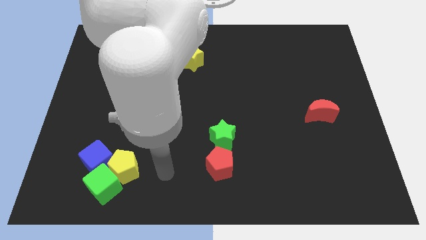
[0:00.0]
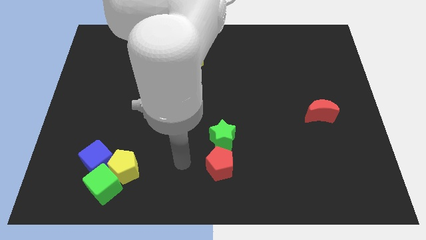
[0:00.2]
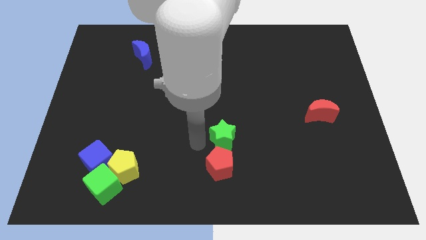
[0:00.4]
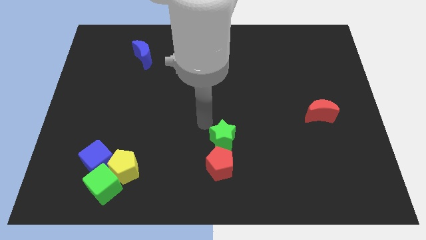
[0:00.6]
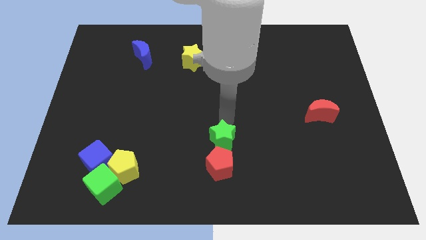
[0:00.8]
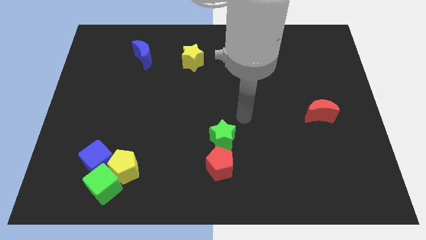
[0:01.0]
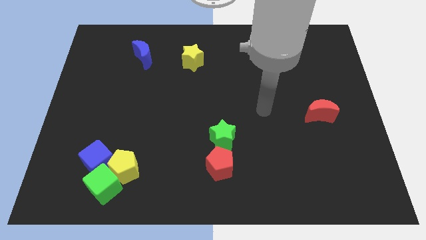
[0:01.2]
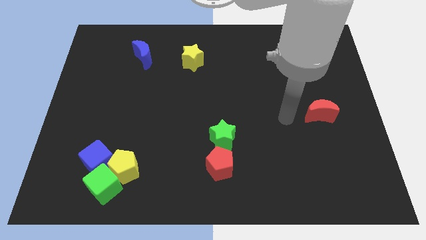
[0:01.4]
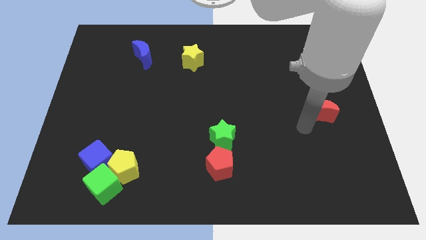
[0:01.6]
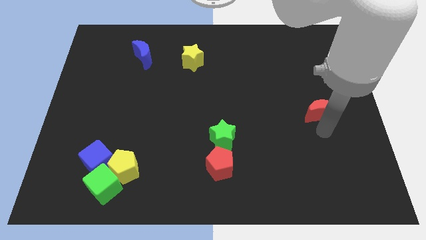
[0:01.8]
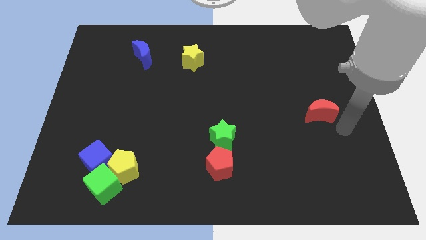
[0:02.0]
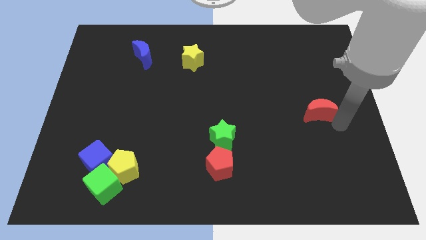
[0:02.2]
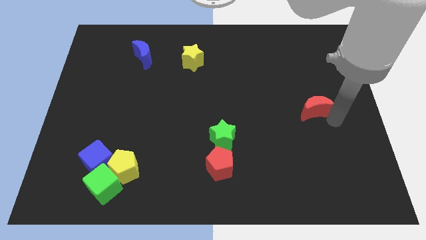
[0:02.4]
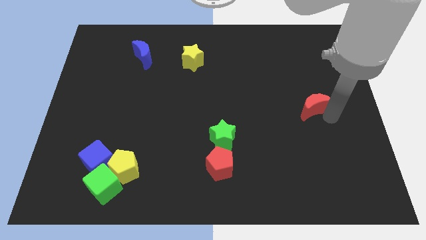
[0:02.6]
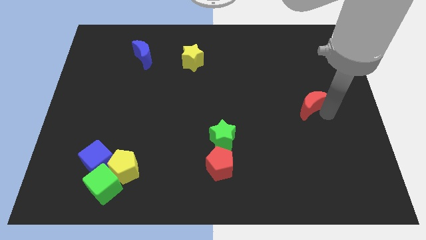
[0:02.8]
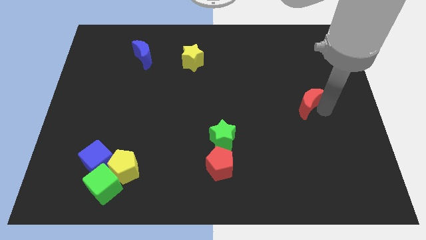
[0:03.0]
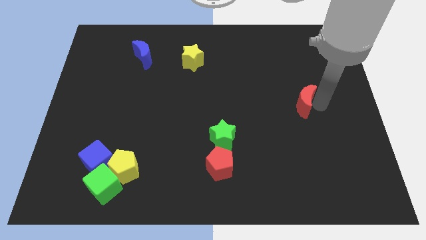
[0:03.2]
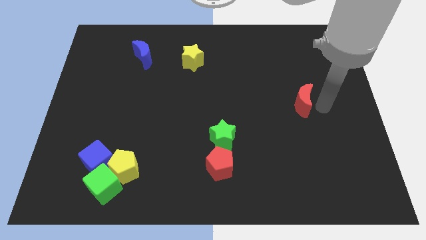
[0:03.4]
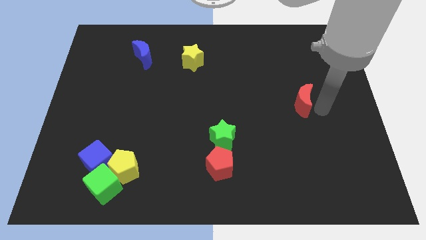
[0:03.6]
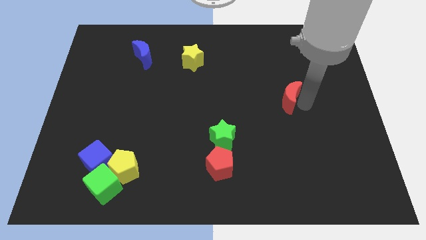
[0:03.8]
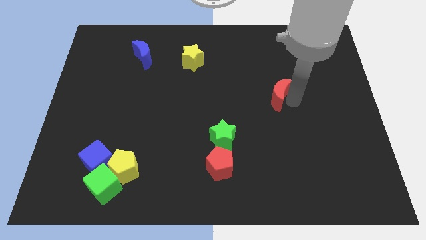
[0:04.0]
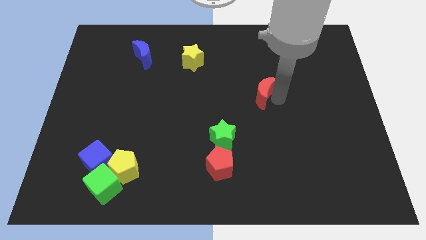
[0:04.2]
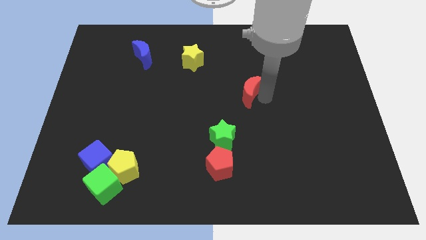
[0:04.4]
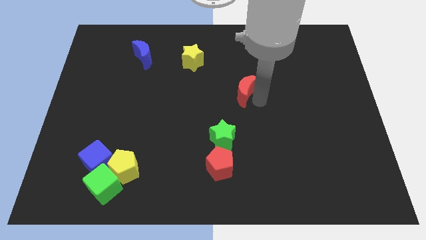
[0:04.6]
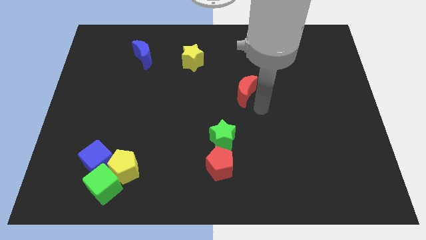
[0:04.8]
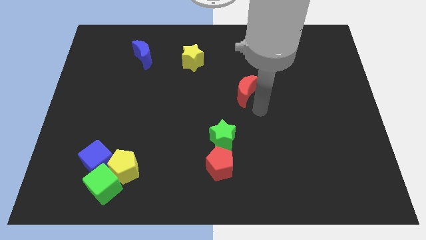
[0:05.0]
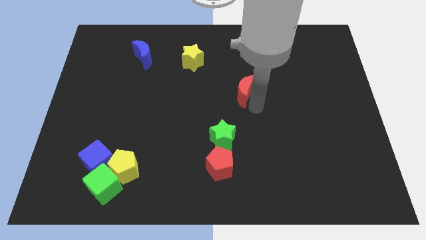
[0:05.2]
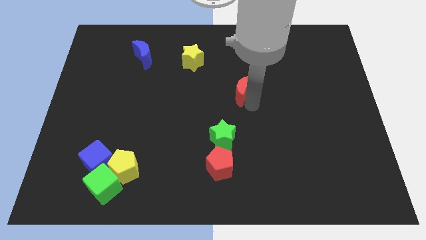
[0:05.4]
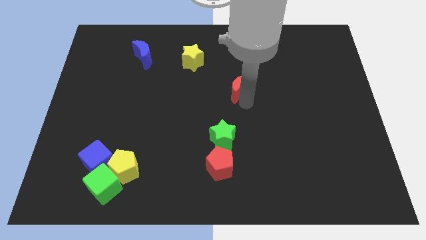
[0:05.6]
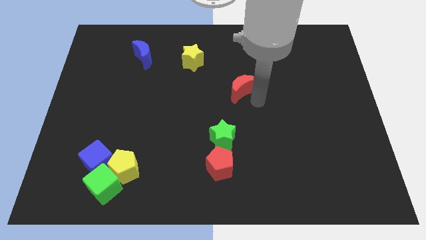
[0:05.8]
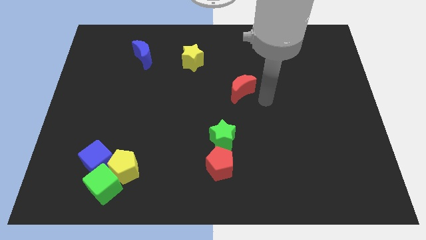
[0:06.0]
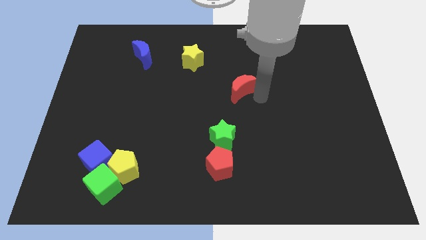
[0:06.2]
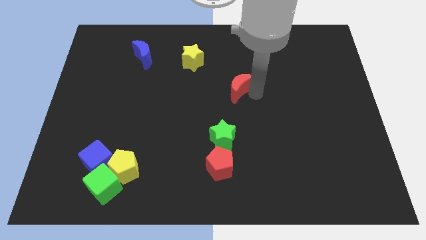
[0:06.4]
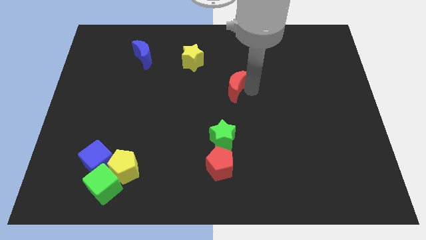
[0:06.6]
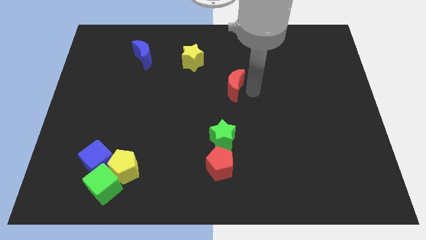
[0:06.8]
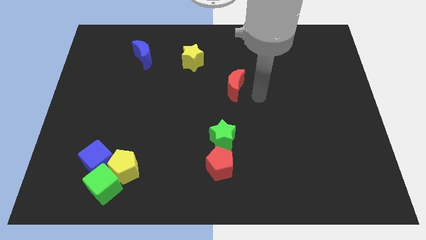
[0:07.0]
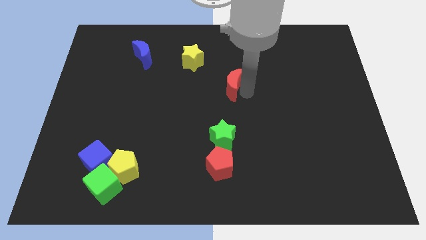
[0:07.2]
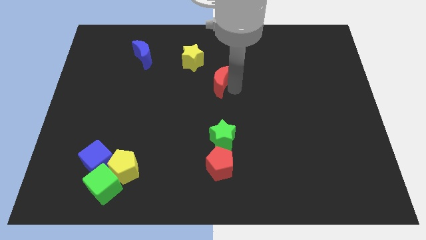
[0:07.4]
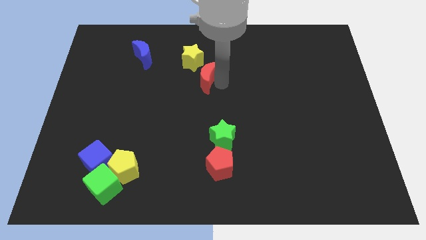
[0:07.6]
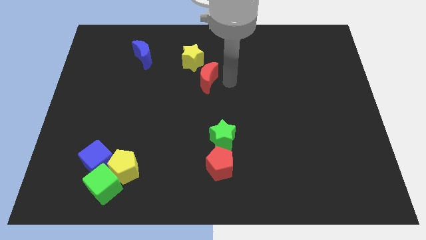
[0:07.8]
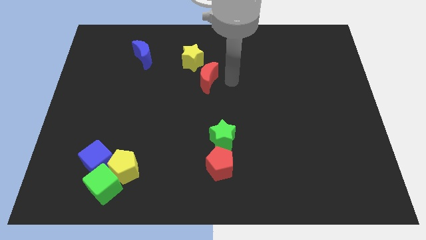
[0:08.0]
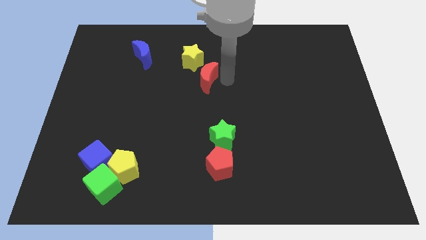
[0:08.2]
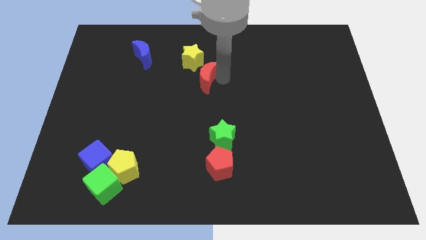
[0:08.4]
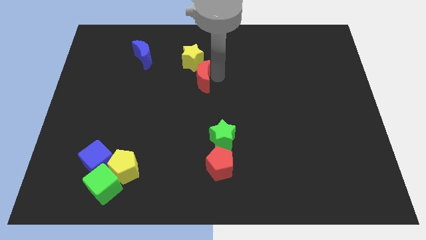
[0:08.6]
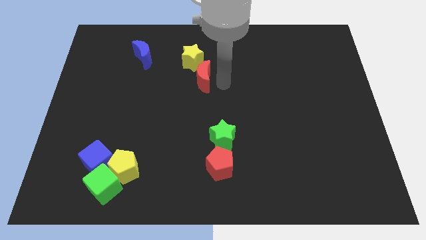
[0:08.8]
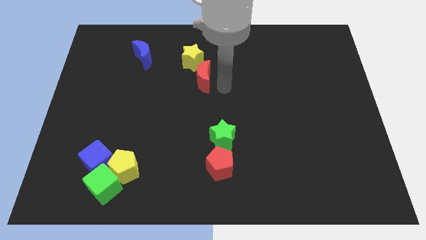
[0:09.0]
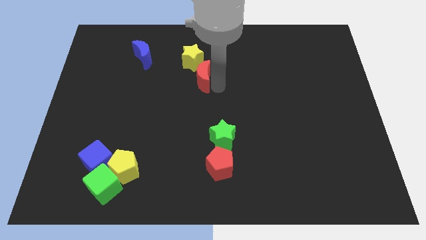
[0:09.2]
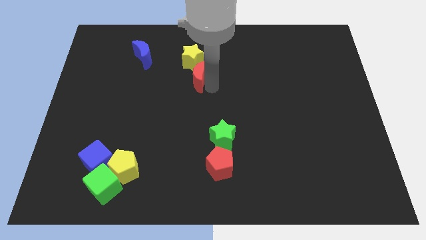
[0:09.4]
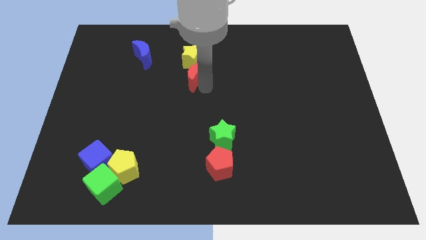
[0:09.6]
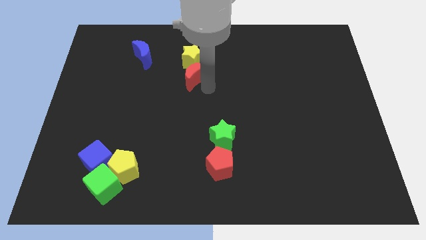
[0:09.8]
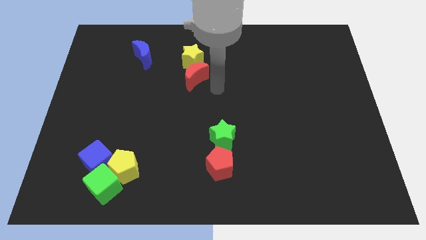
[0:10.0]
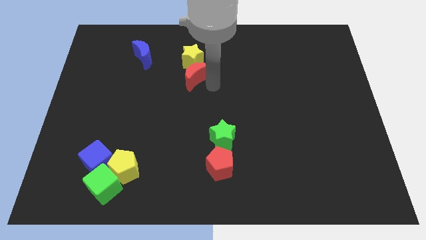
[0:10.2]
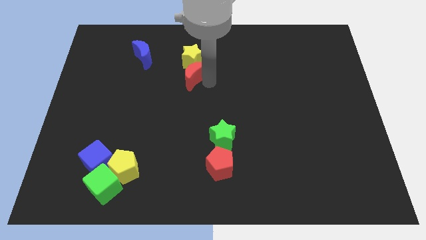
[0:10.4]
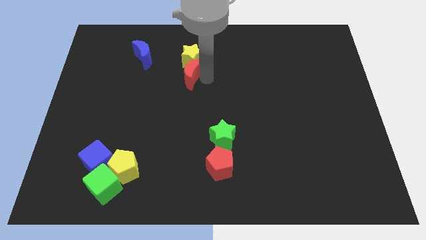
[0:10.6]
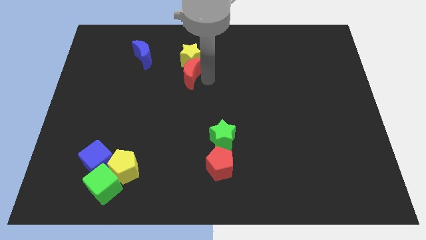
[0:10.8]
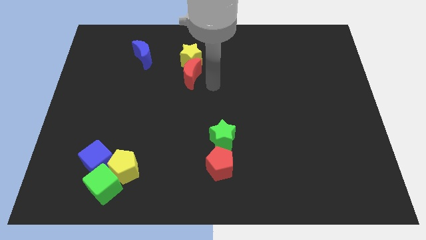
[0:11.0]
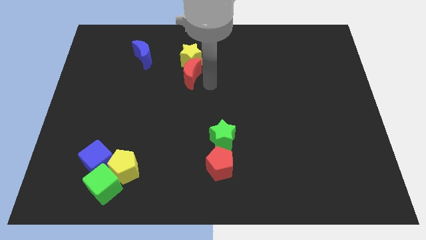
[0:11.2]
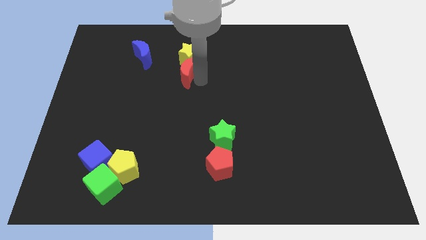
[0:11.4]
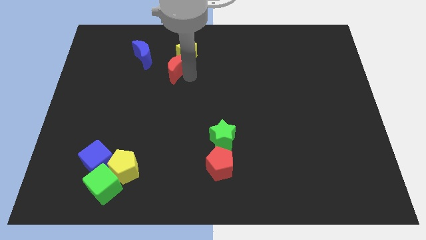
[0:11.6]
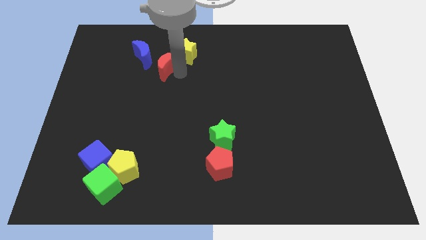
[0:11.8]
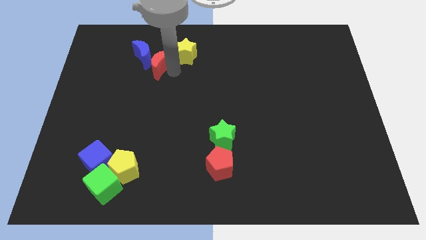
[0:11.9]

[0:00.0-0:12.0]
put the red moon towards the blue moon

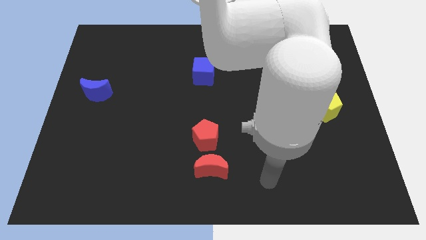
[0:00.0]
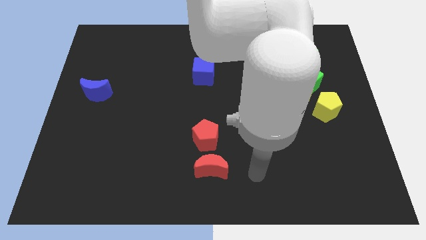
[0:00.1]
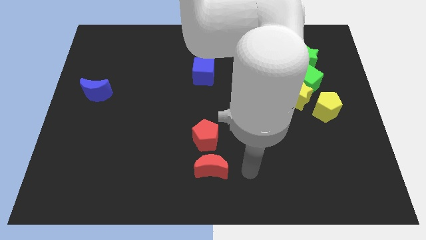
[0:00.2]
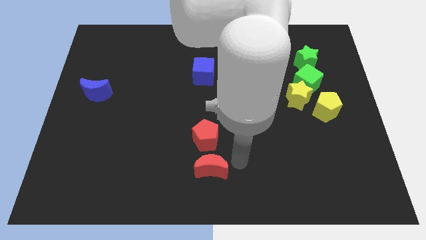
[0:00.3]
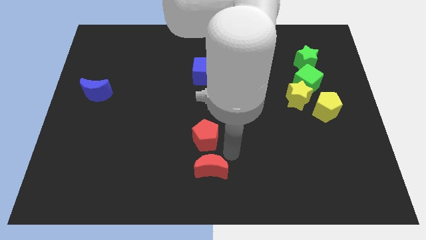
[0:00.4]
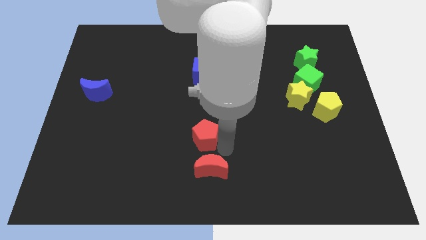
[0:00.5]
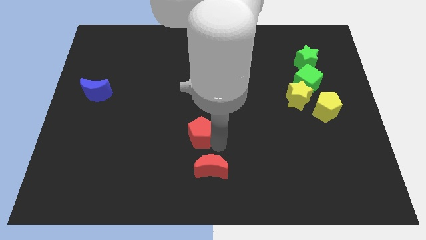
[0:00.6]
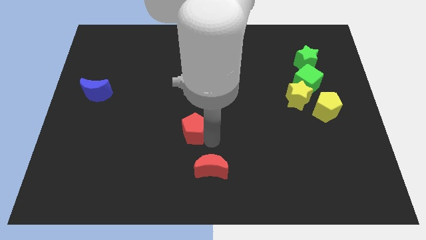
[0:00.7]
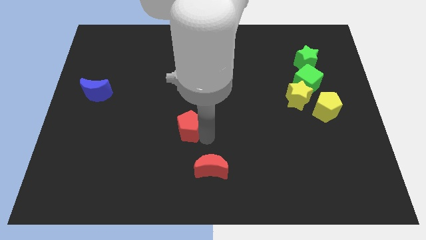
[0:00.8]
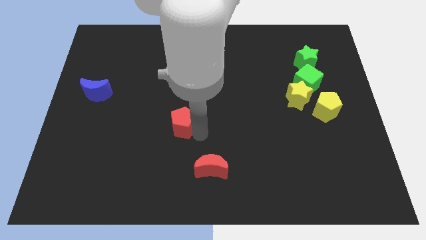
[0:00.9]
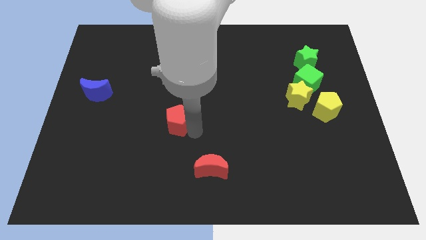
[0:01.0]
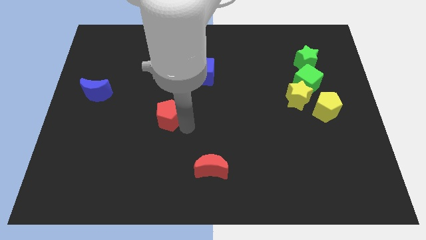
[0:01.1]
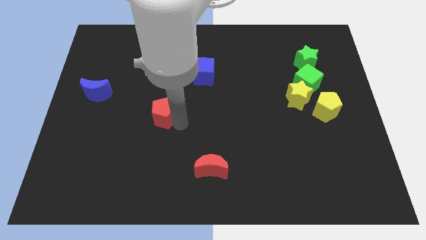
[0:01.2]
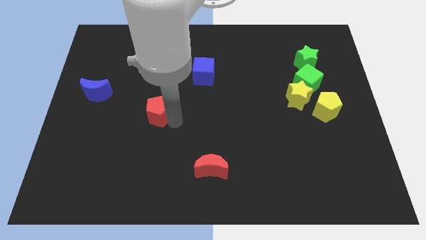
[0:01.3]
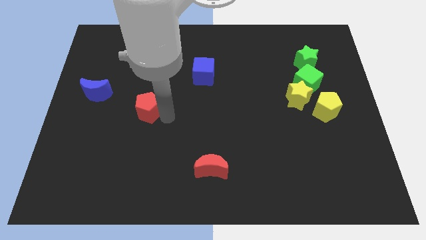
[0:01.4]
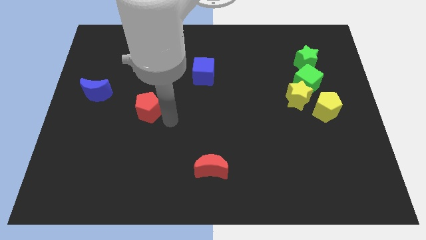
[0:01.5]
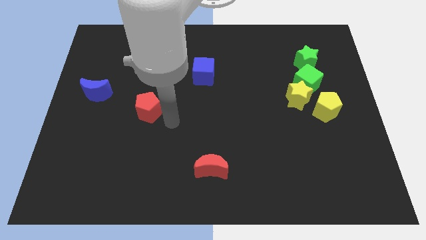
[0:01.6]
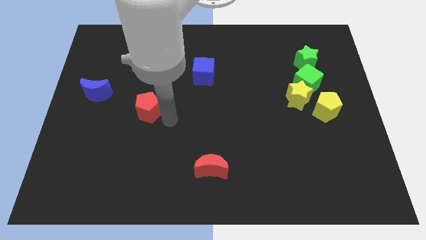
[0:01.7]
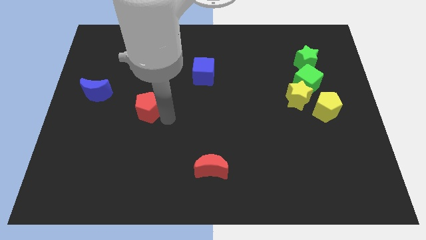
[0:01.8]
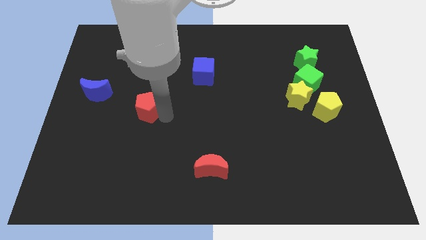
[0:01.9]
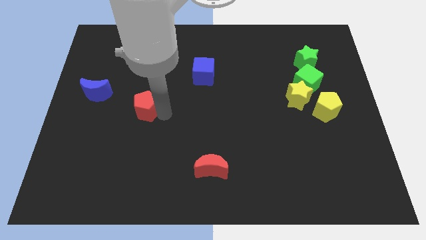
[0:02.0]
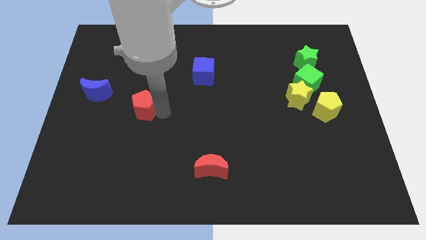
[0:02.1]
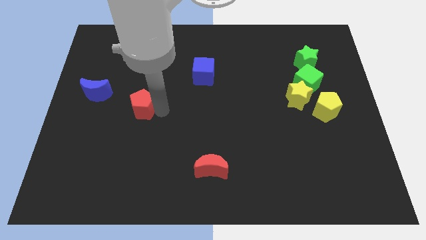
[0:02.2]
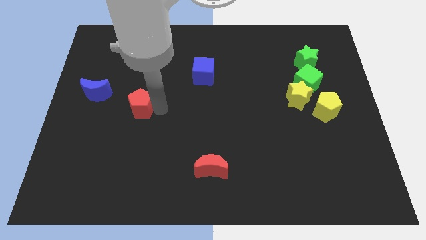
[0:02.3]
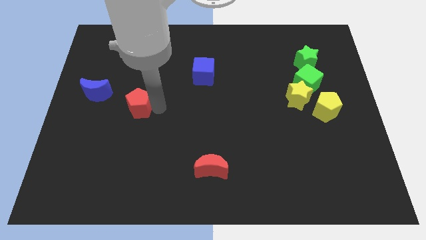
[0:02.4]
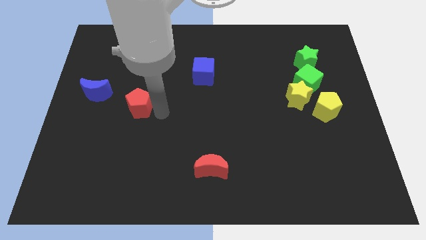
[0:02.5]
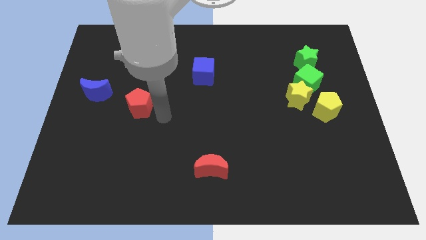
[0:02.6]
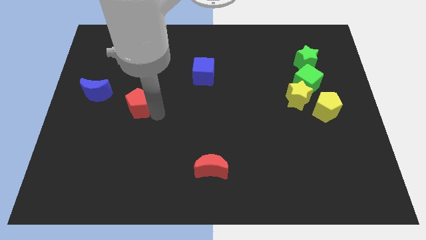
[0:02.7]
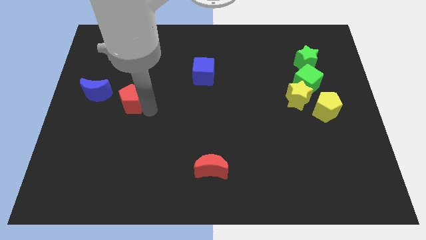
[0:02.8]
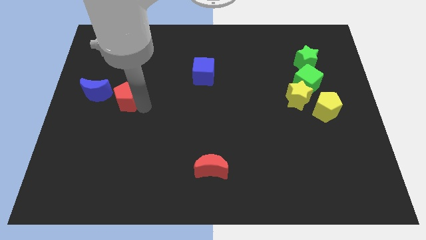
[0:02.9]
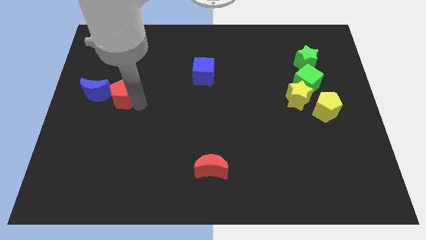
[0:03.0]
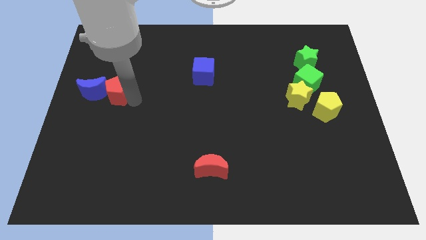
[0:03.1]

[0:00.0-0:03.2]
push the red pentagon next to the blue moon
